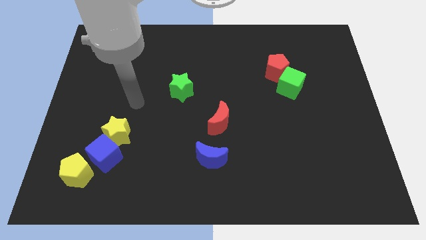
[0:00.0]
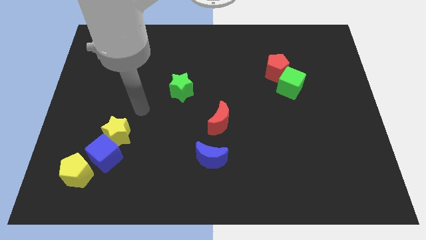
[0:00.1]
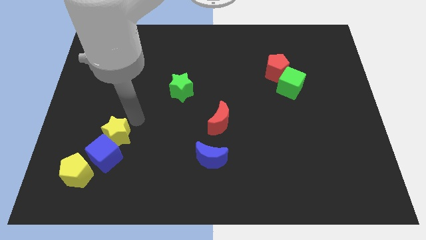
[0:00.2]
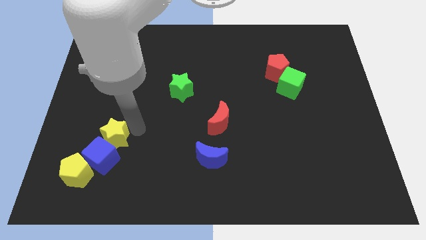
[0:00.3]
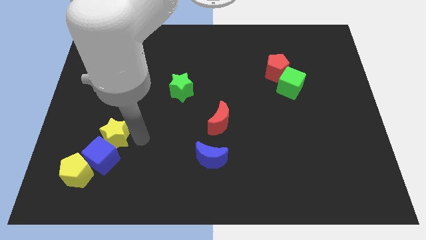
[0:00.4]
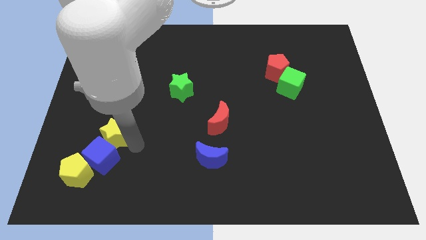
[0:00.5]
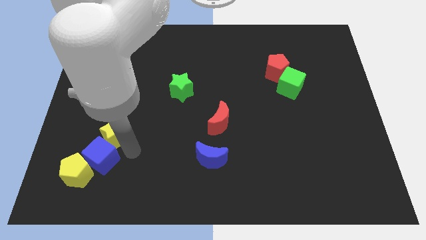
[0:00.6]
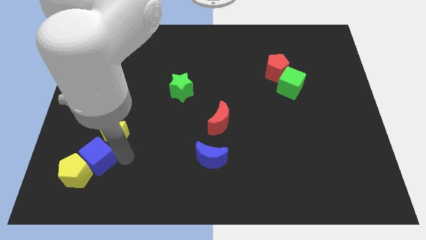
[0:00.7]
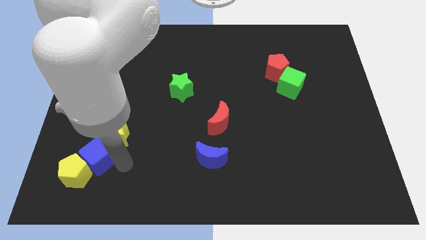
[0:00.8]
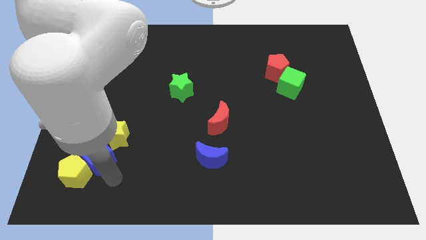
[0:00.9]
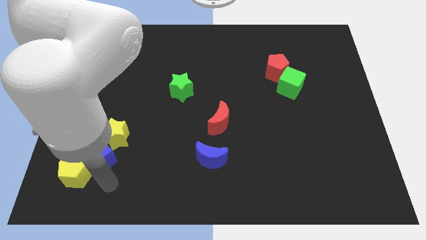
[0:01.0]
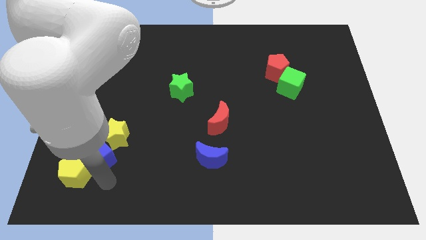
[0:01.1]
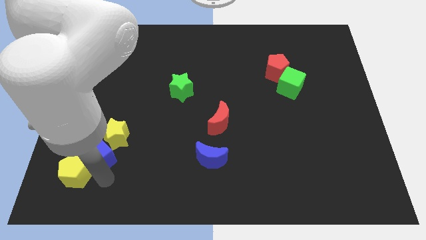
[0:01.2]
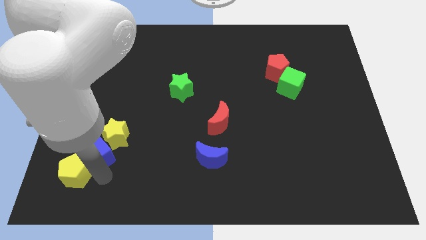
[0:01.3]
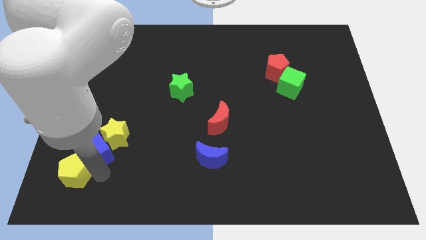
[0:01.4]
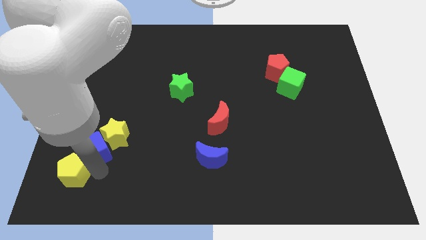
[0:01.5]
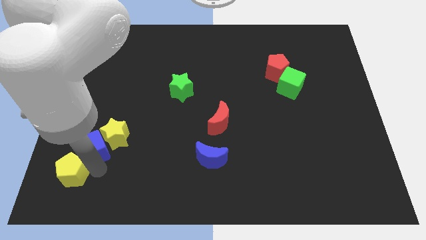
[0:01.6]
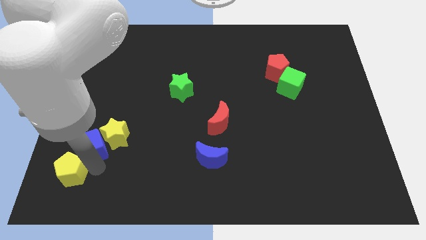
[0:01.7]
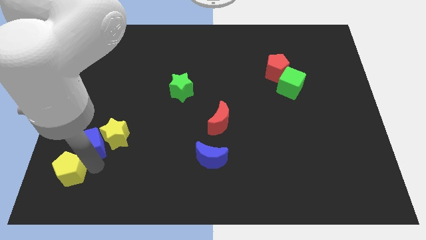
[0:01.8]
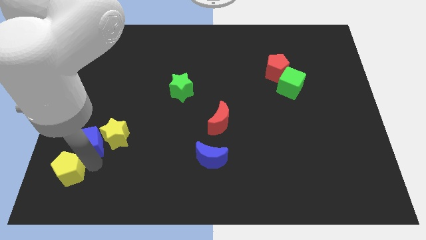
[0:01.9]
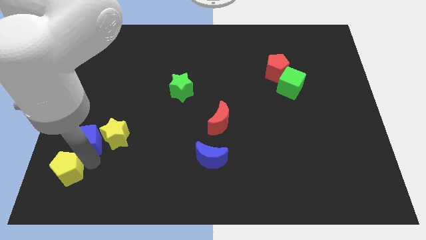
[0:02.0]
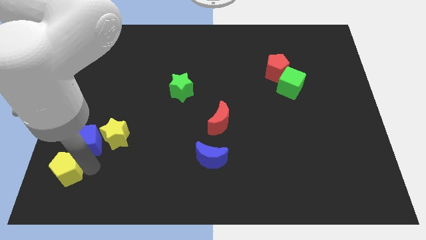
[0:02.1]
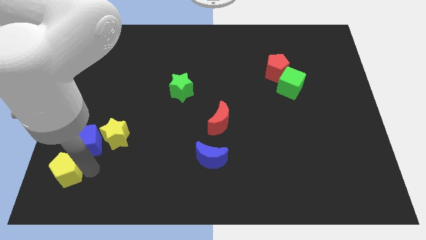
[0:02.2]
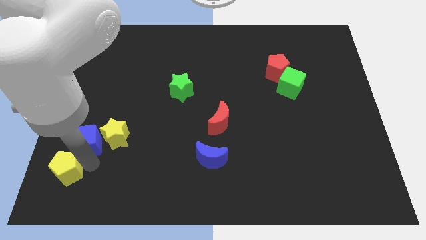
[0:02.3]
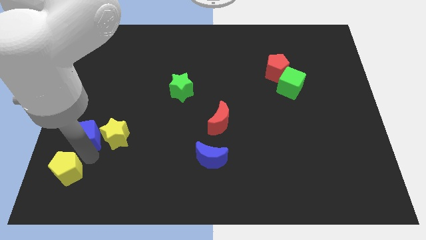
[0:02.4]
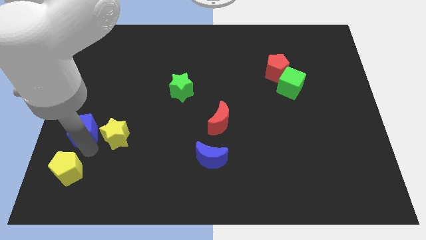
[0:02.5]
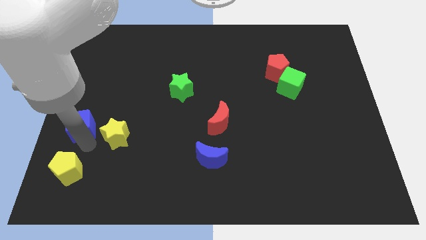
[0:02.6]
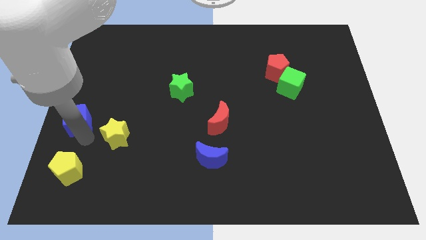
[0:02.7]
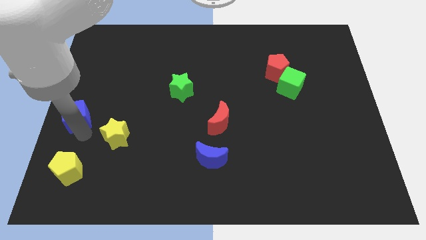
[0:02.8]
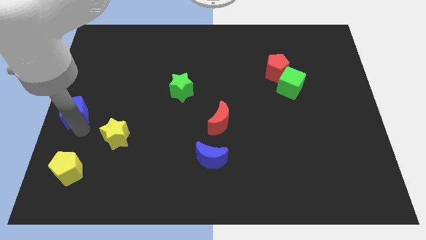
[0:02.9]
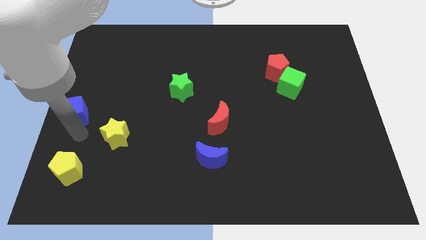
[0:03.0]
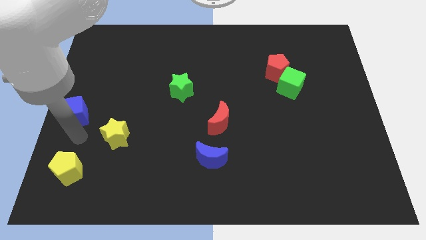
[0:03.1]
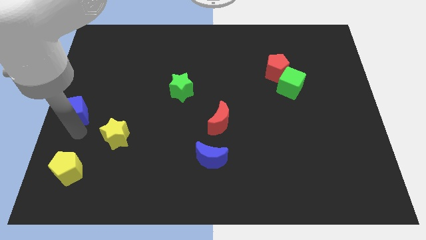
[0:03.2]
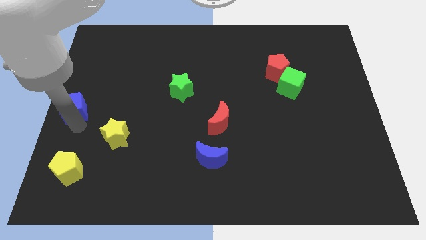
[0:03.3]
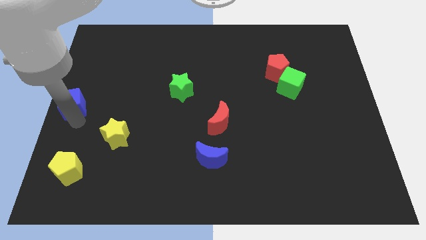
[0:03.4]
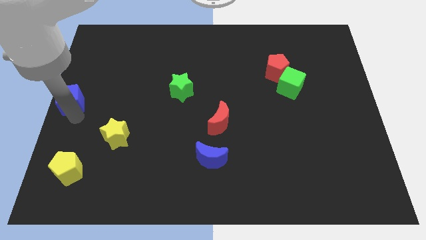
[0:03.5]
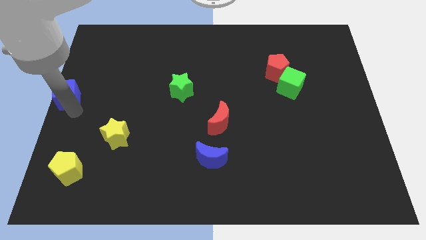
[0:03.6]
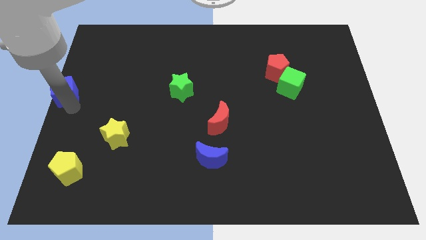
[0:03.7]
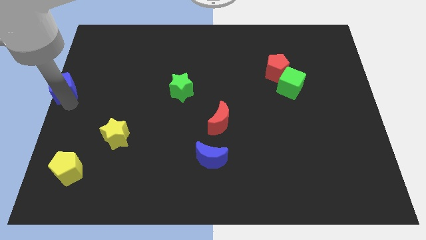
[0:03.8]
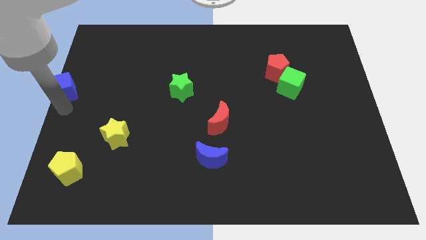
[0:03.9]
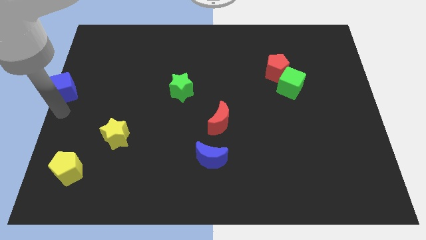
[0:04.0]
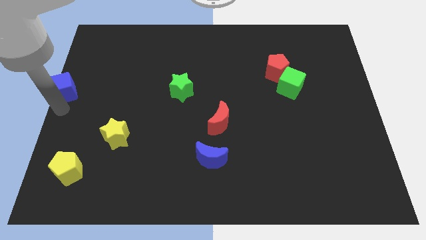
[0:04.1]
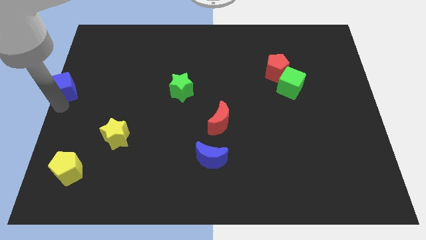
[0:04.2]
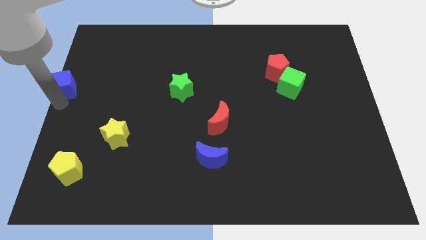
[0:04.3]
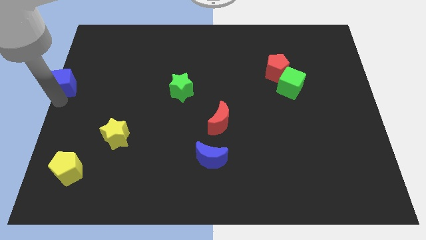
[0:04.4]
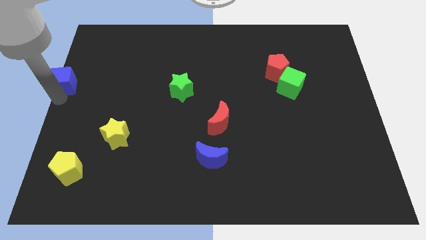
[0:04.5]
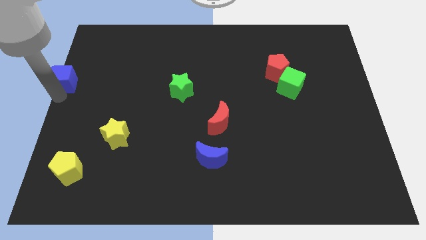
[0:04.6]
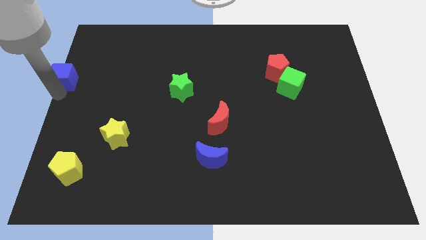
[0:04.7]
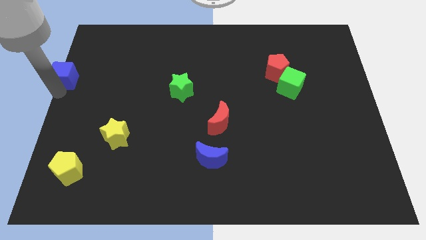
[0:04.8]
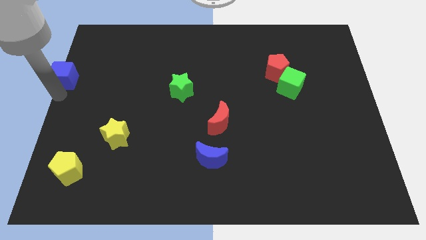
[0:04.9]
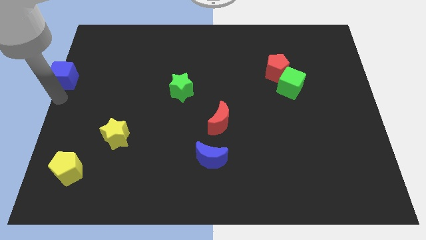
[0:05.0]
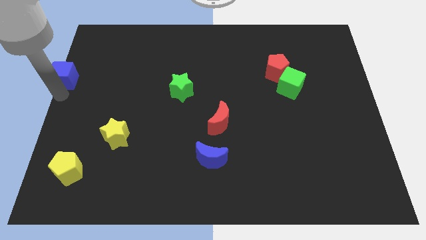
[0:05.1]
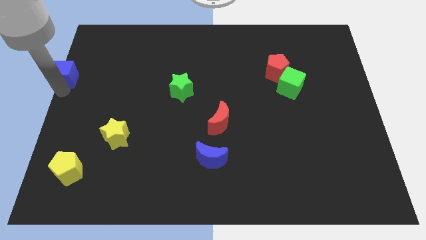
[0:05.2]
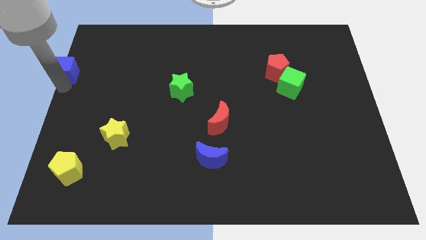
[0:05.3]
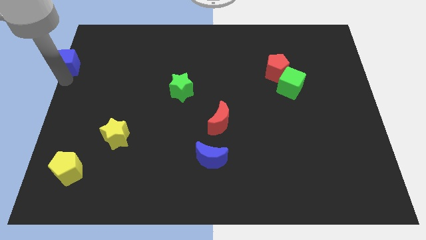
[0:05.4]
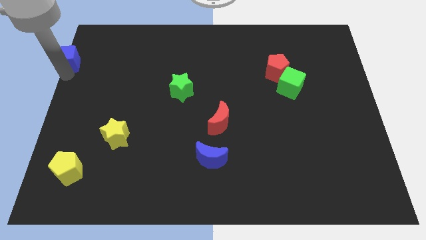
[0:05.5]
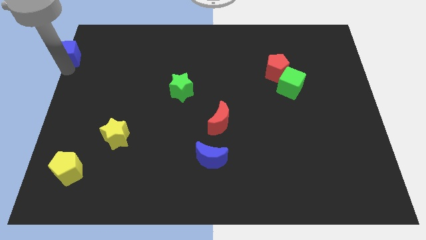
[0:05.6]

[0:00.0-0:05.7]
push the blue cube to the top left of the board

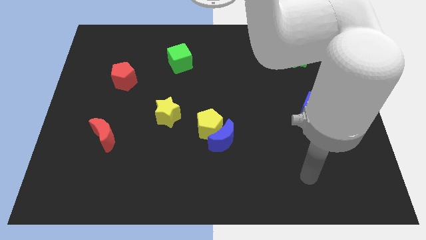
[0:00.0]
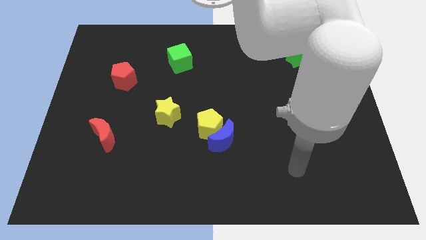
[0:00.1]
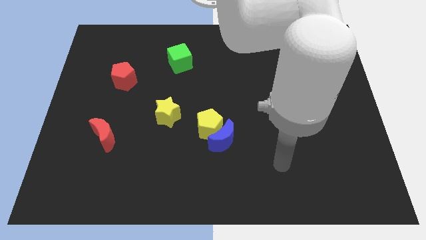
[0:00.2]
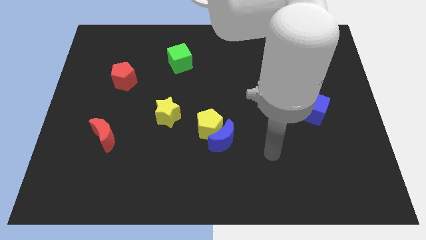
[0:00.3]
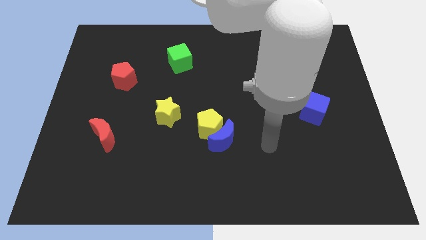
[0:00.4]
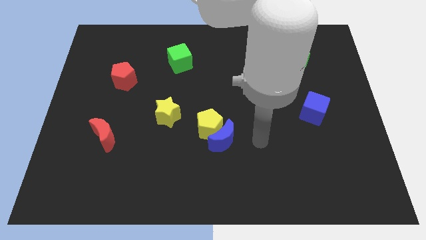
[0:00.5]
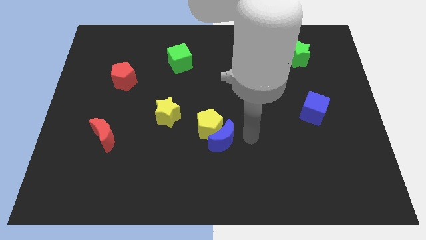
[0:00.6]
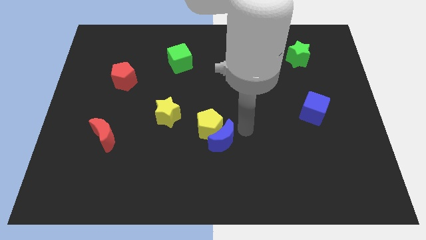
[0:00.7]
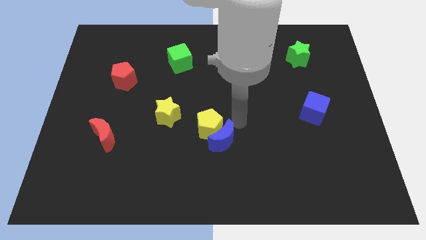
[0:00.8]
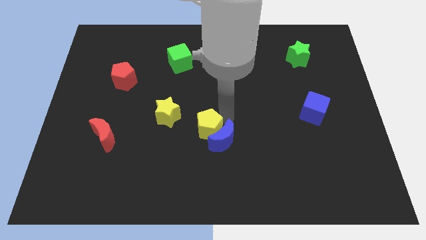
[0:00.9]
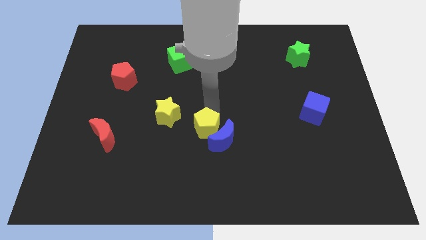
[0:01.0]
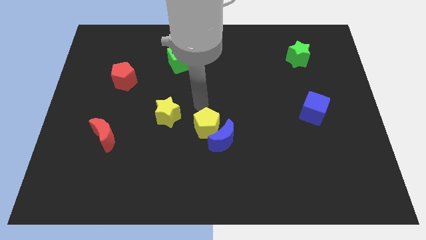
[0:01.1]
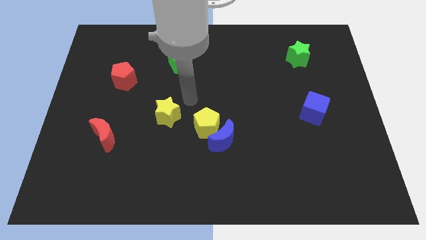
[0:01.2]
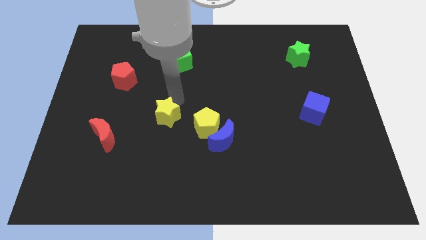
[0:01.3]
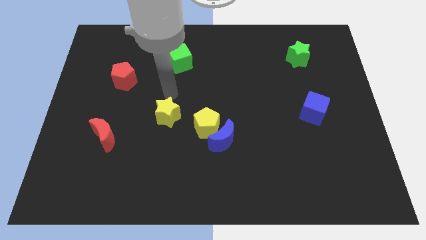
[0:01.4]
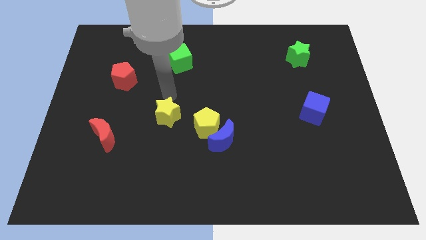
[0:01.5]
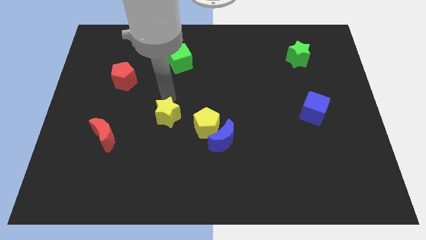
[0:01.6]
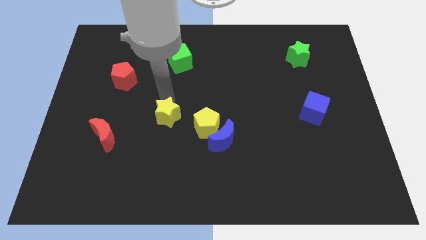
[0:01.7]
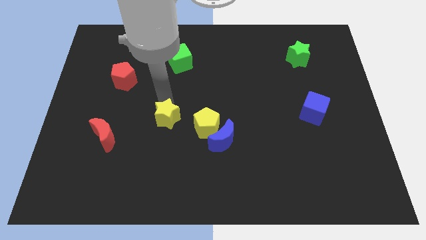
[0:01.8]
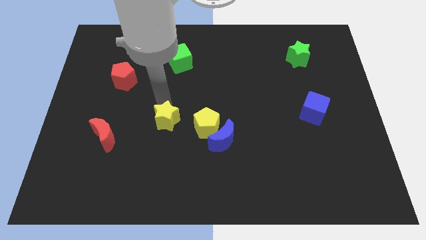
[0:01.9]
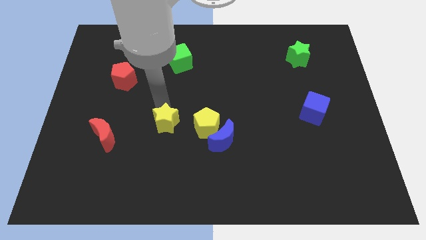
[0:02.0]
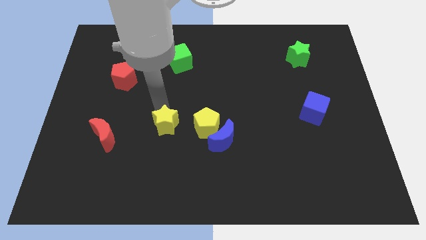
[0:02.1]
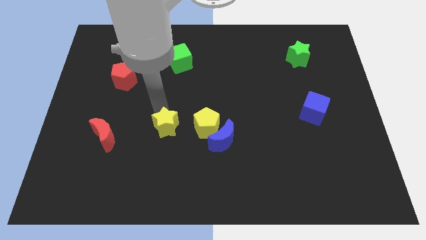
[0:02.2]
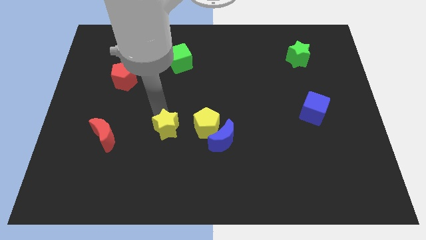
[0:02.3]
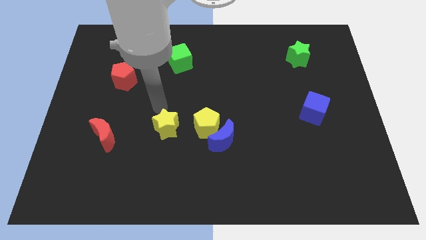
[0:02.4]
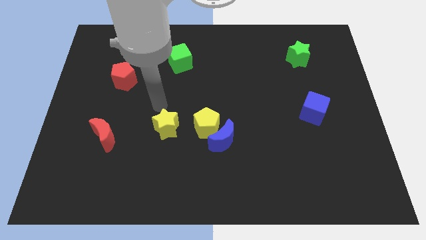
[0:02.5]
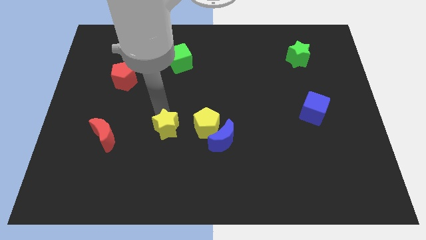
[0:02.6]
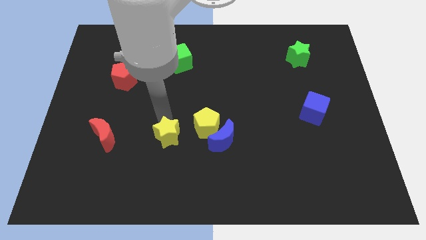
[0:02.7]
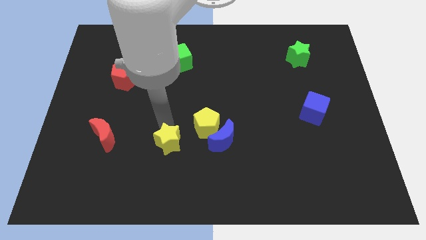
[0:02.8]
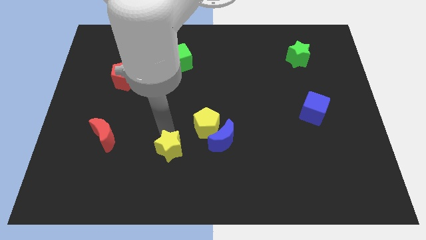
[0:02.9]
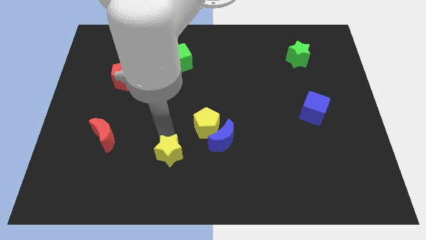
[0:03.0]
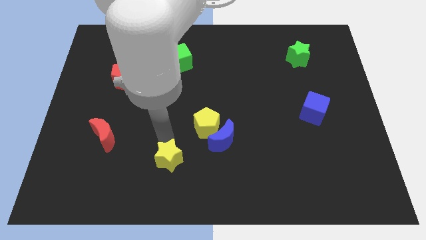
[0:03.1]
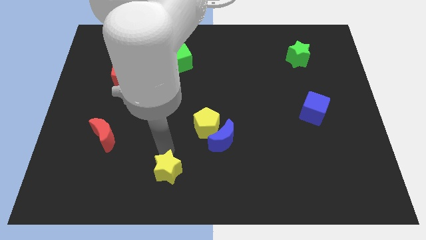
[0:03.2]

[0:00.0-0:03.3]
slide the yellow star to the bottom side
